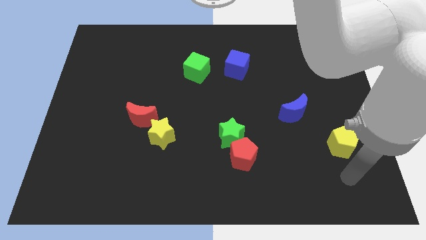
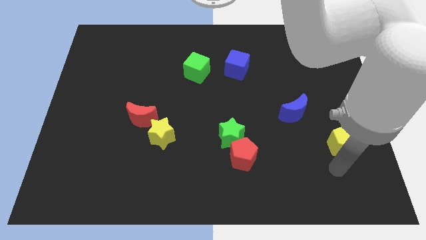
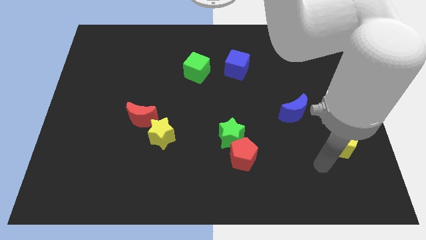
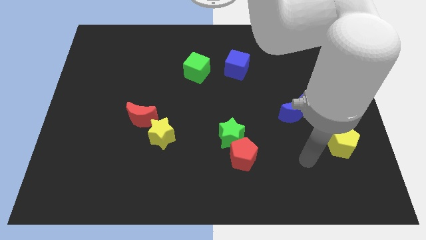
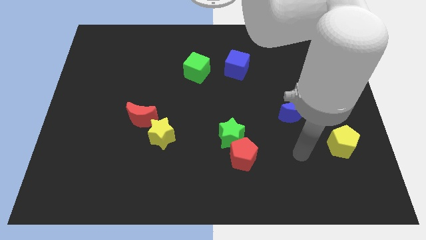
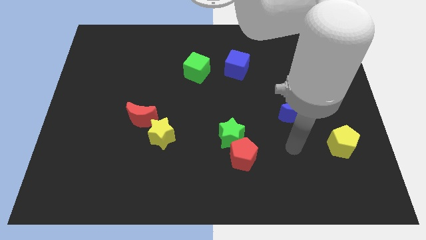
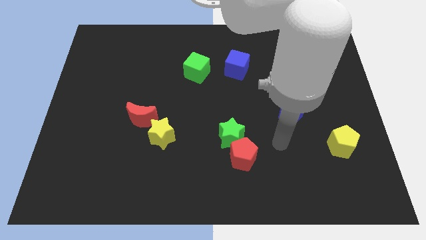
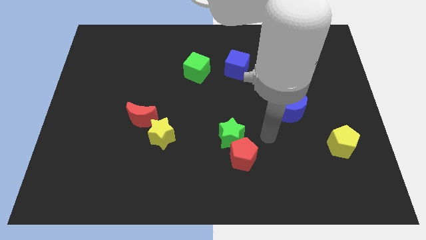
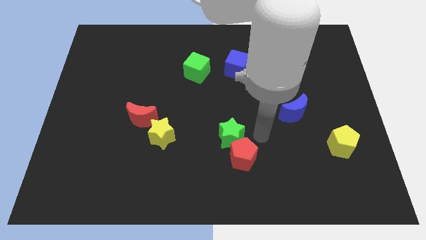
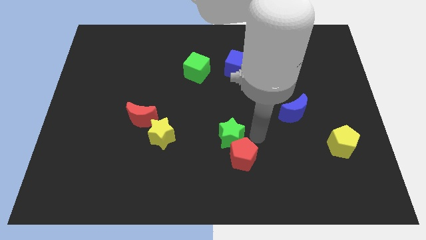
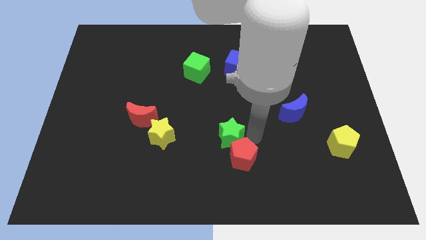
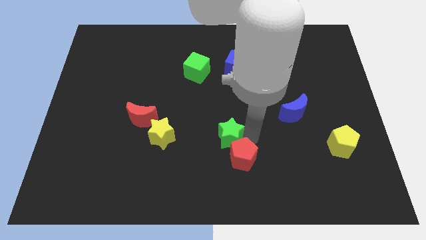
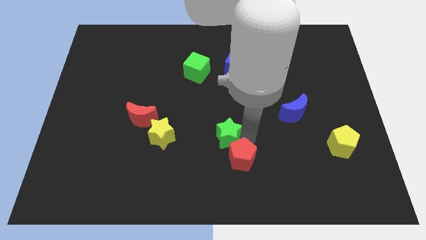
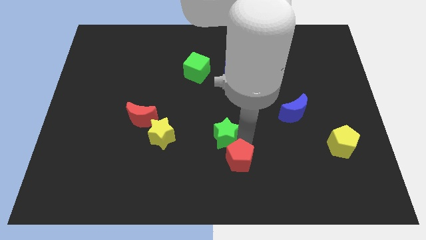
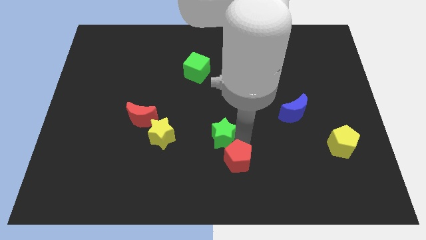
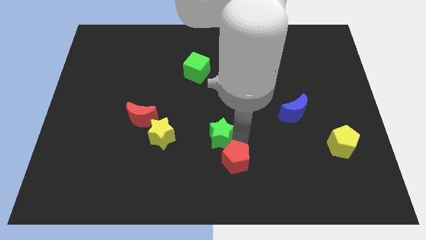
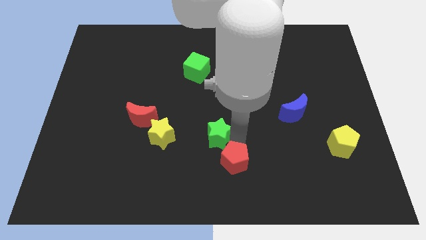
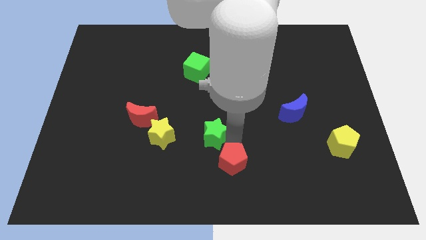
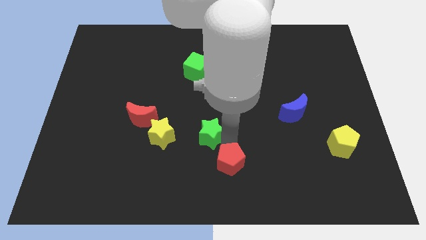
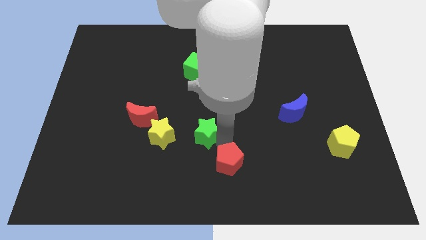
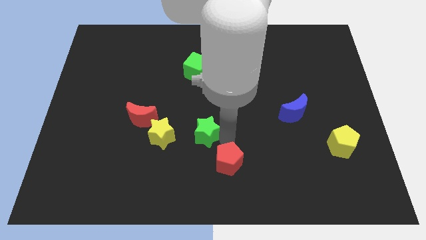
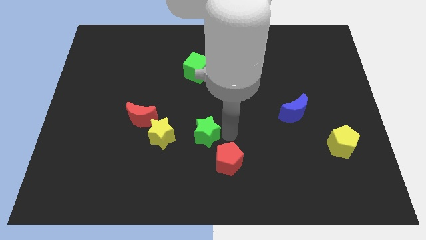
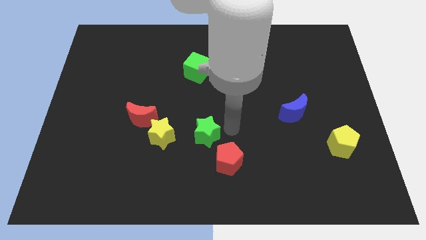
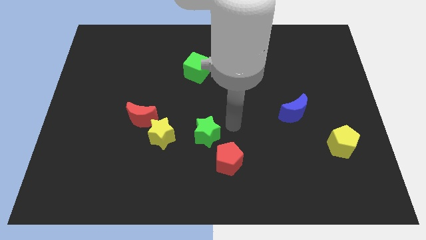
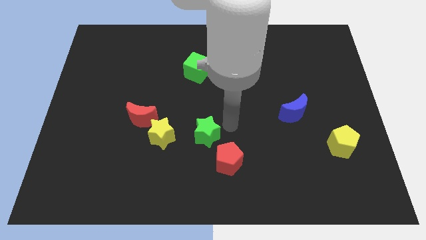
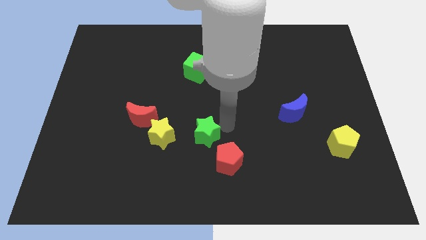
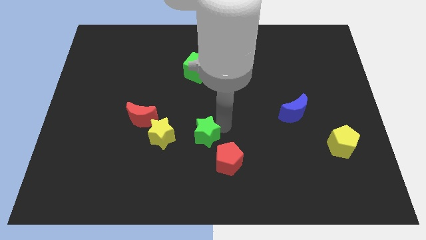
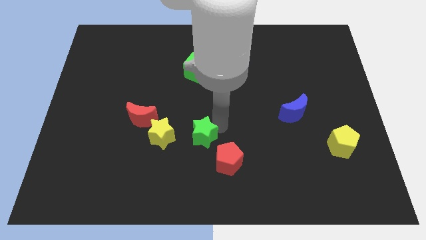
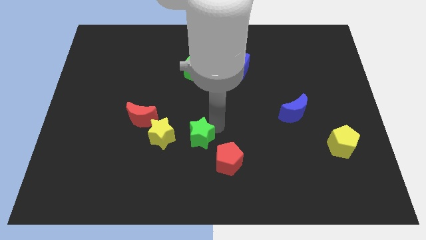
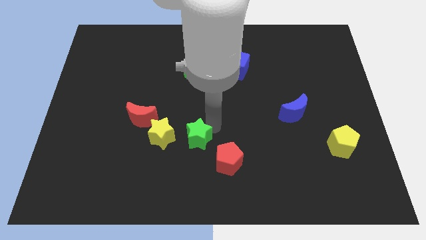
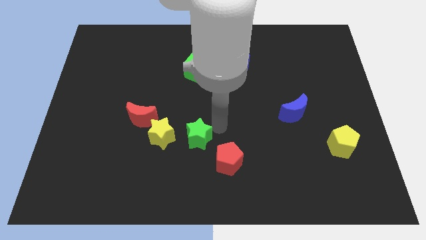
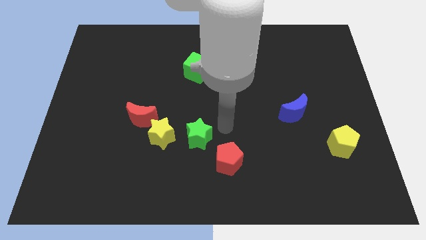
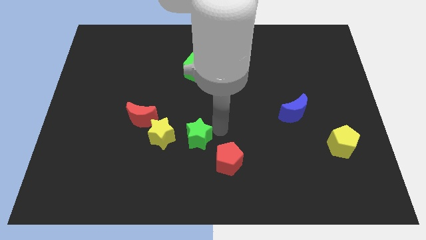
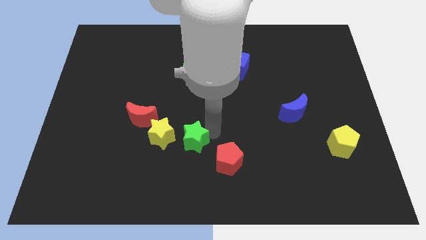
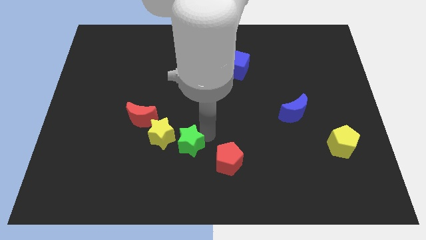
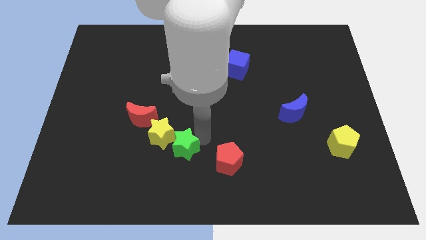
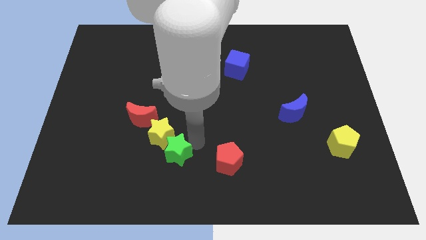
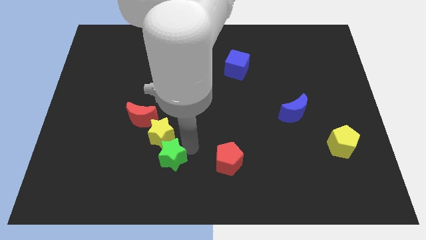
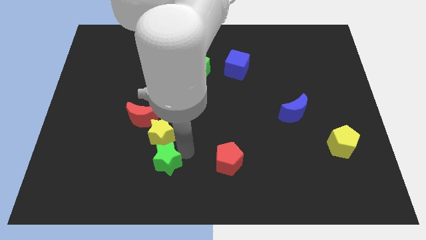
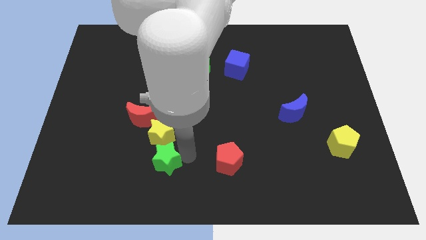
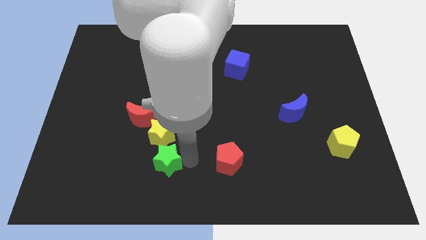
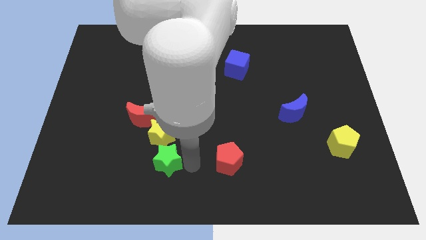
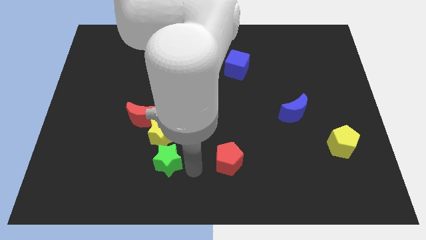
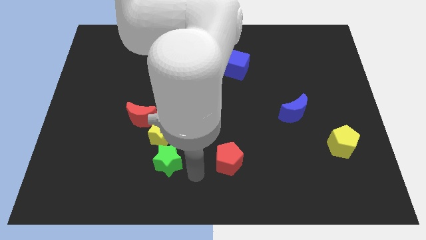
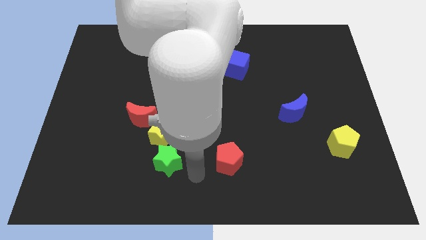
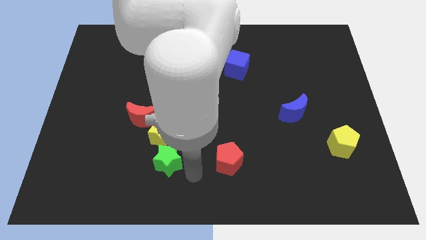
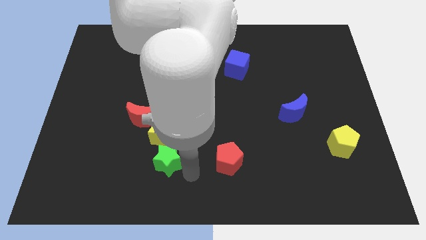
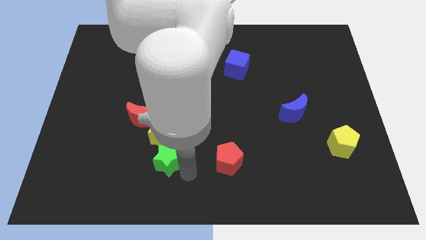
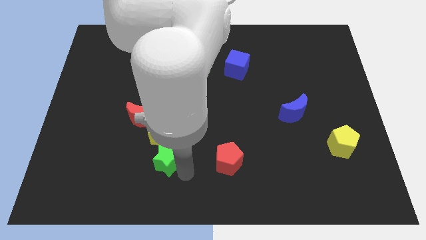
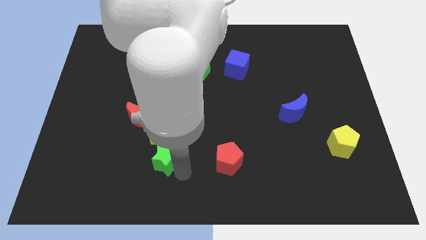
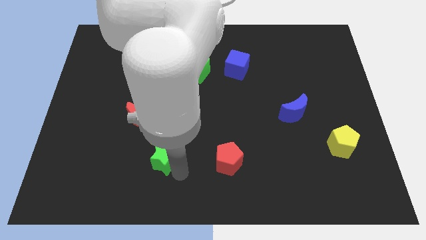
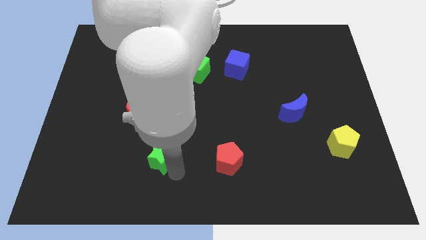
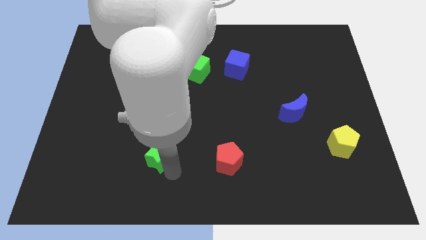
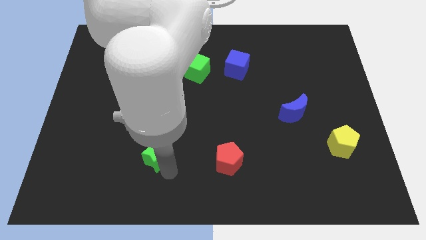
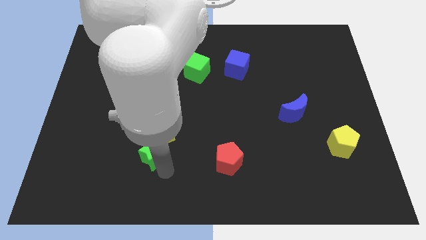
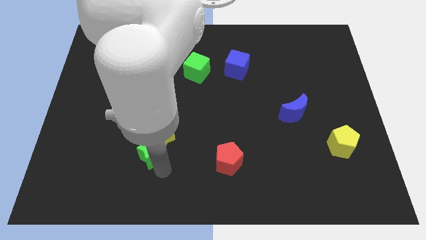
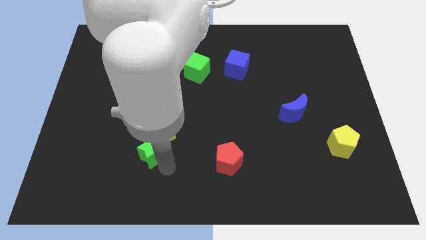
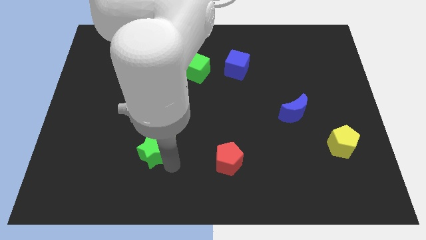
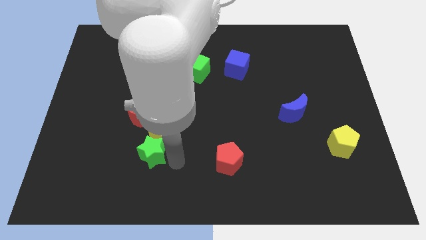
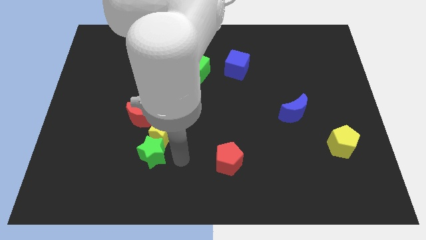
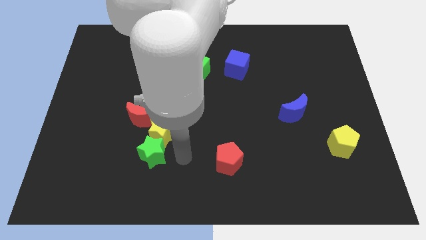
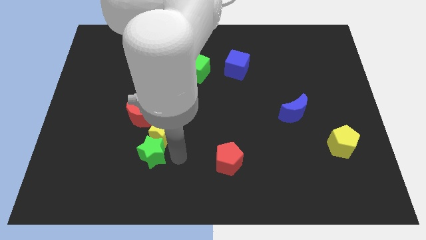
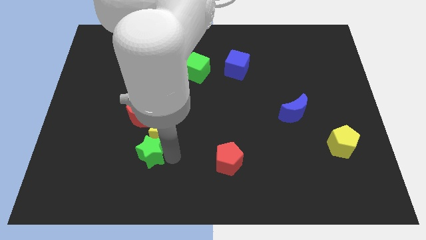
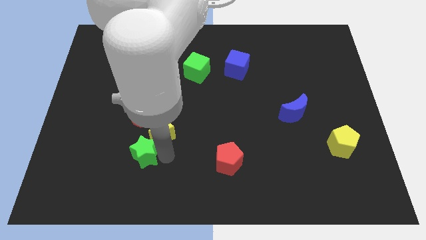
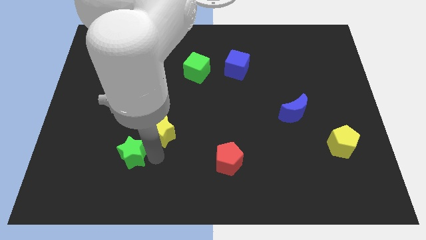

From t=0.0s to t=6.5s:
push the green star to the left

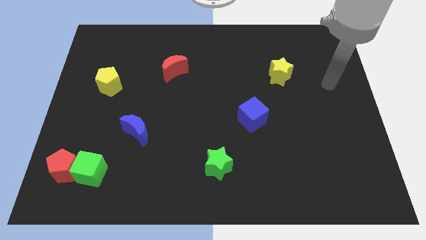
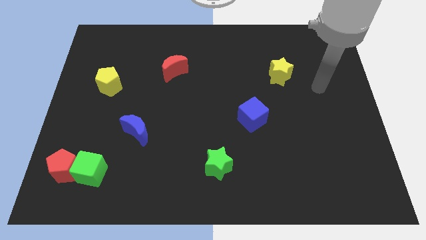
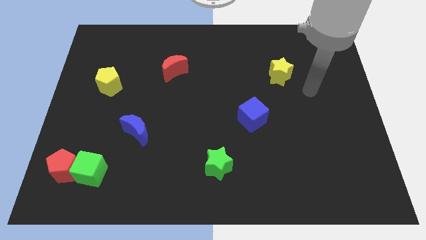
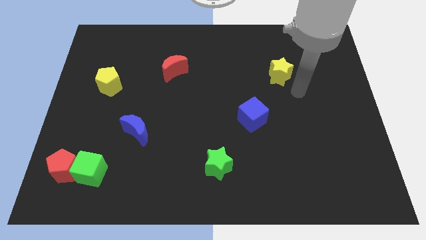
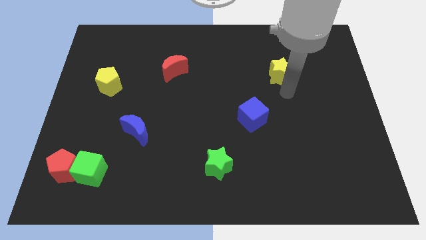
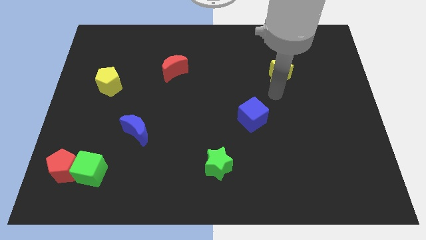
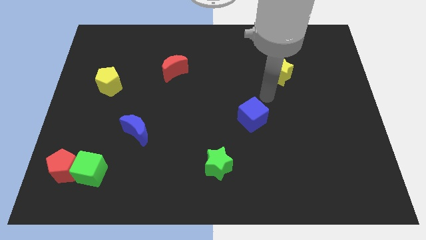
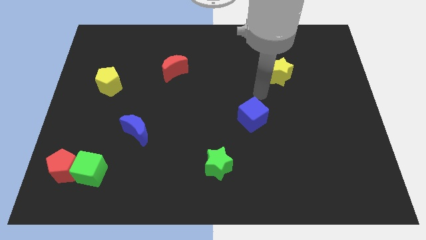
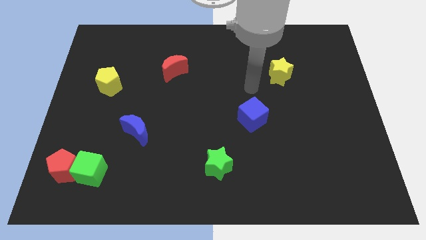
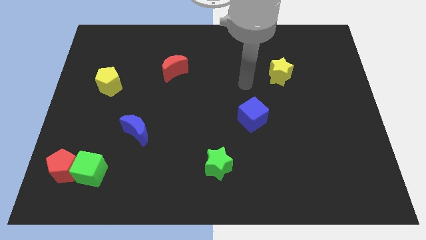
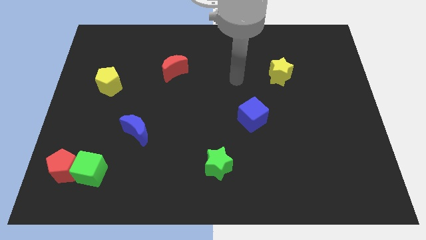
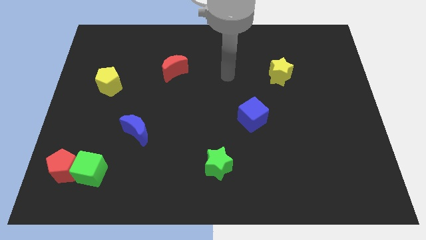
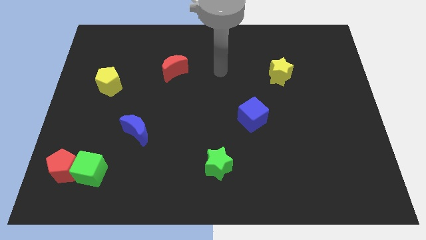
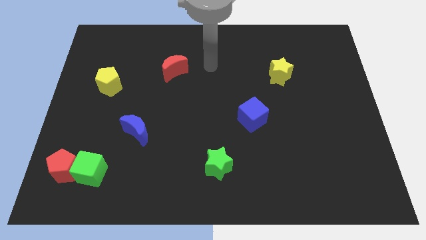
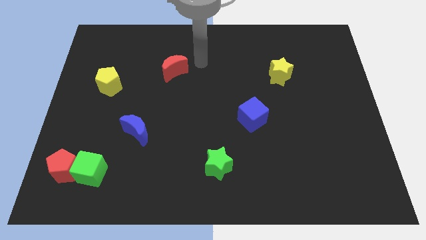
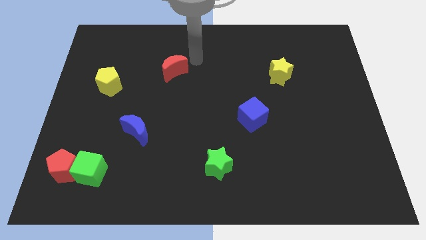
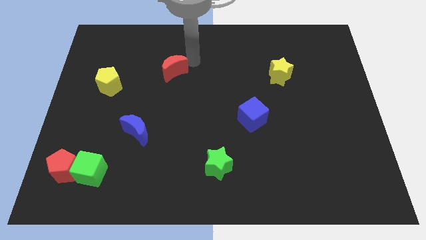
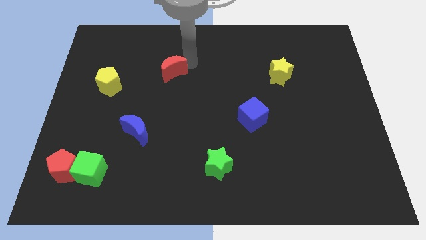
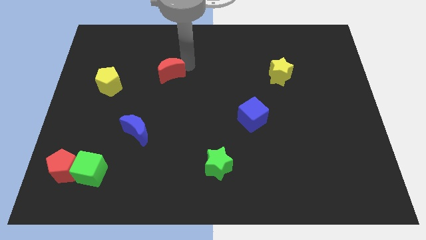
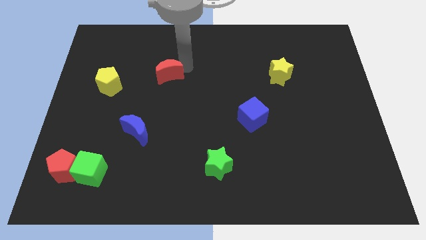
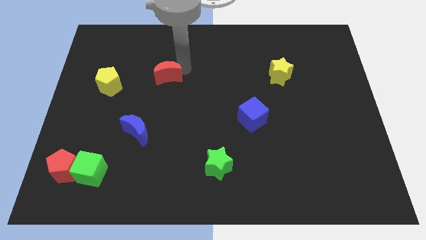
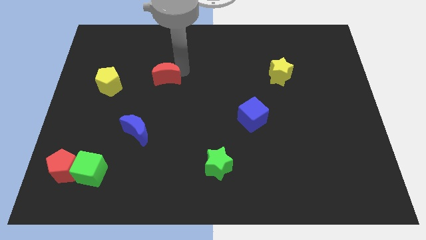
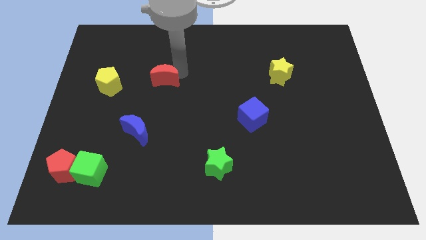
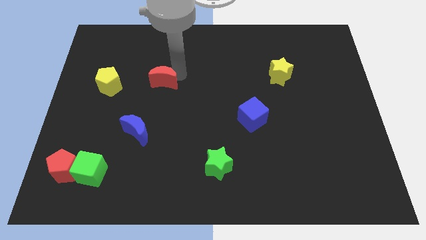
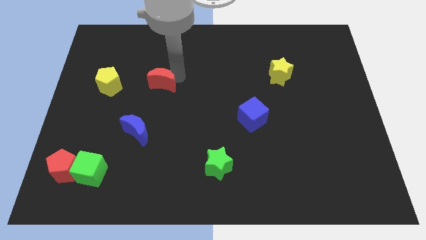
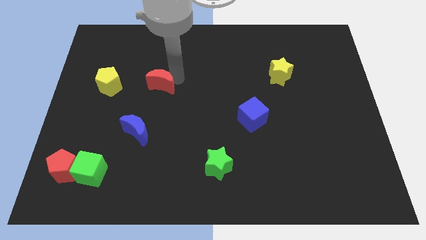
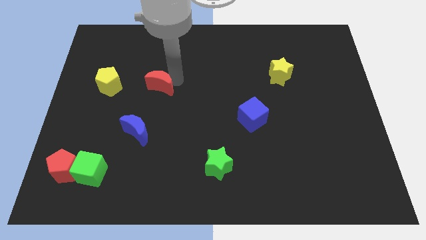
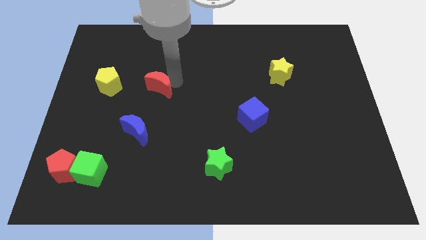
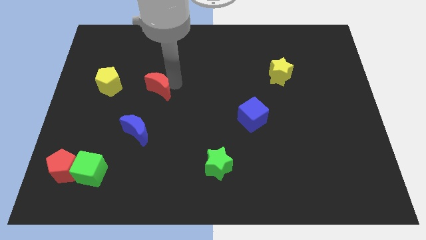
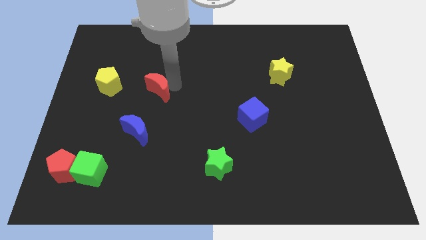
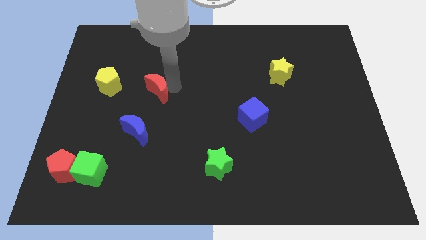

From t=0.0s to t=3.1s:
move the red moon diagonally down and left a bit
